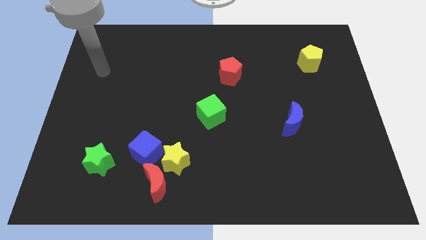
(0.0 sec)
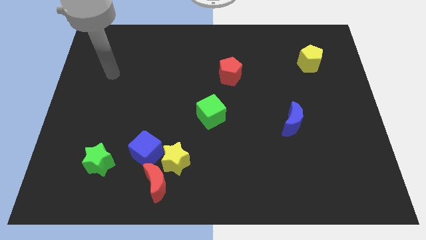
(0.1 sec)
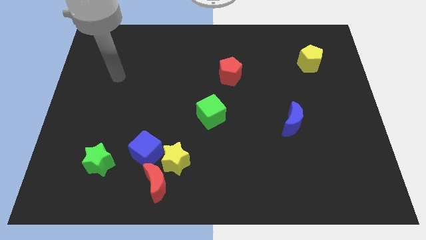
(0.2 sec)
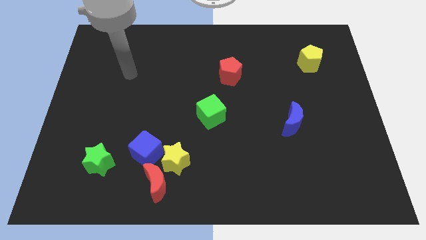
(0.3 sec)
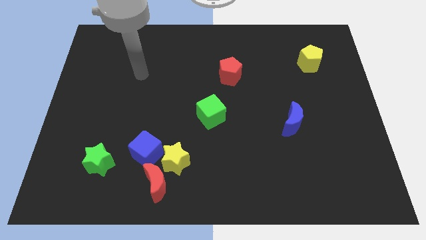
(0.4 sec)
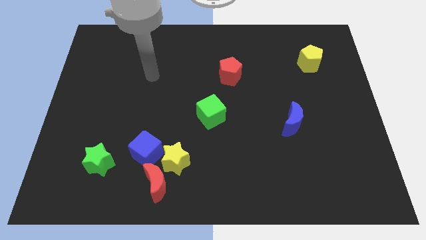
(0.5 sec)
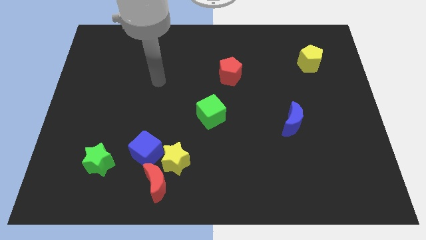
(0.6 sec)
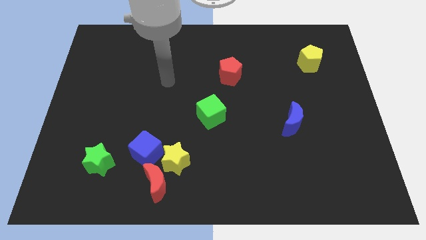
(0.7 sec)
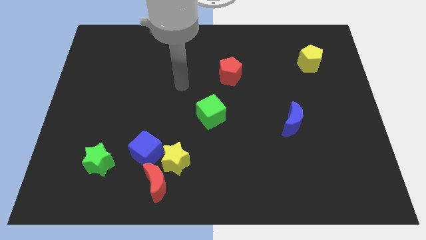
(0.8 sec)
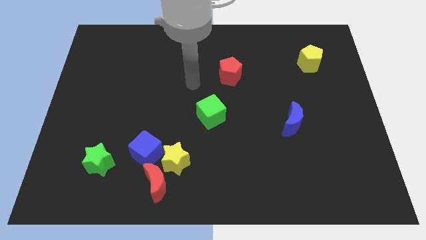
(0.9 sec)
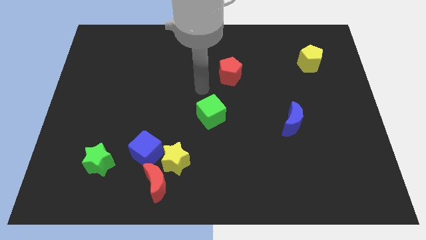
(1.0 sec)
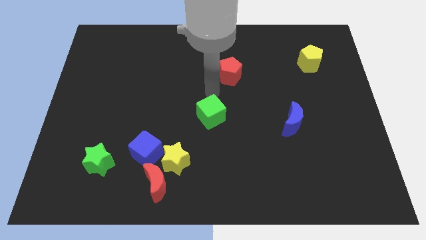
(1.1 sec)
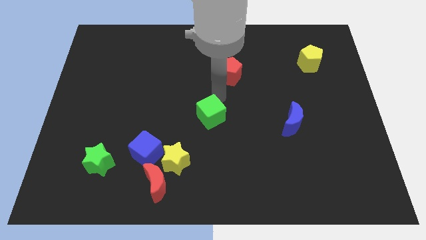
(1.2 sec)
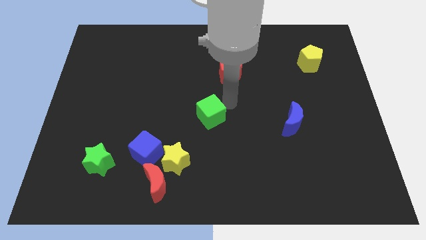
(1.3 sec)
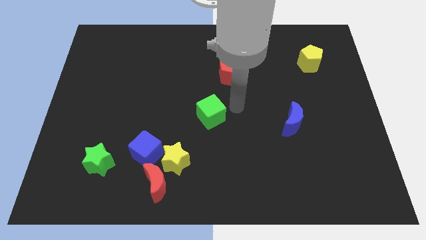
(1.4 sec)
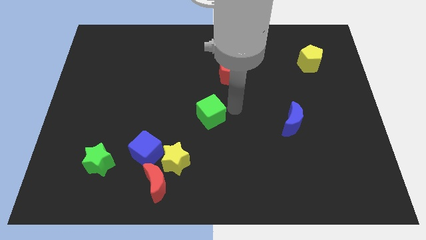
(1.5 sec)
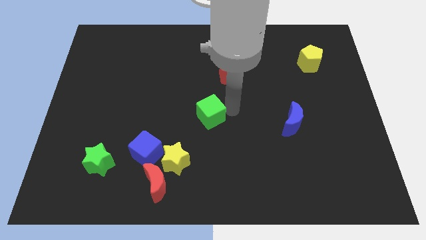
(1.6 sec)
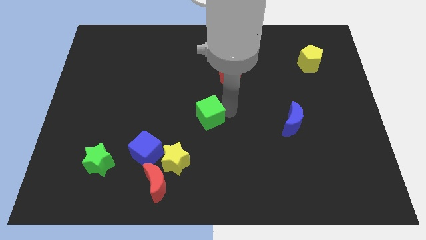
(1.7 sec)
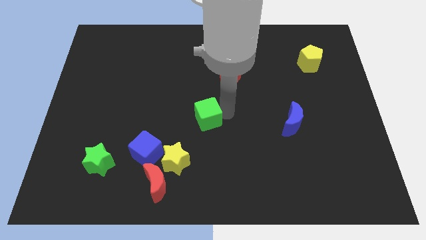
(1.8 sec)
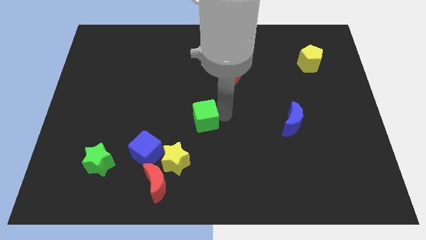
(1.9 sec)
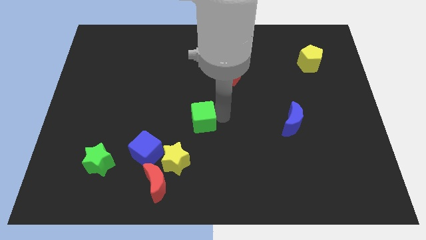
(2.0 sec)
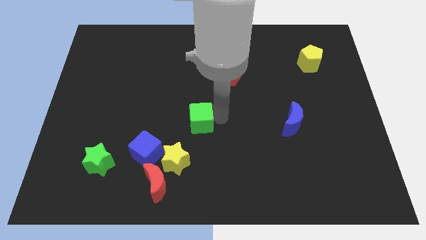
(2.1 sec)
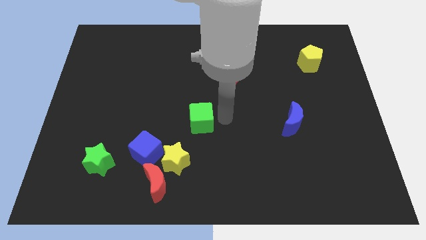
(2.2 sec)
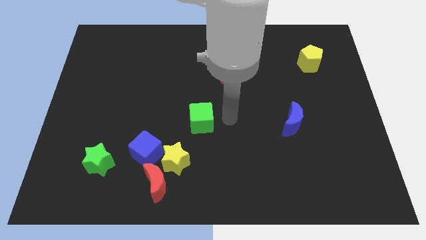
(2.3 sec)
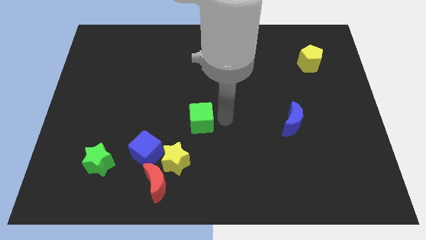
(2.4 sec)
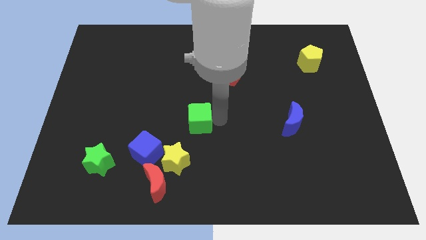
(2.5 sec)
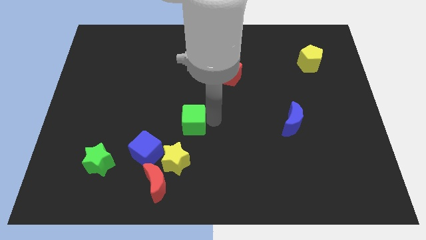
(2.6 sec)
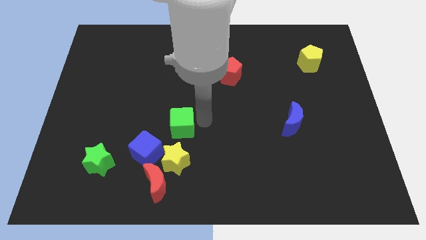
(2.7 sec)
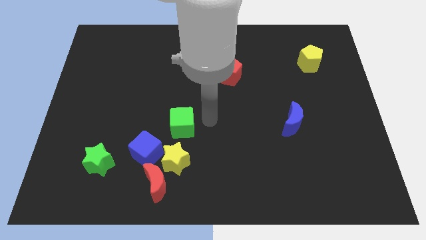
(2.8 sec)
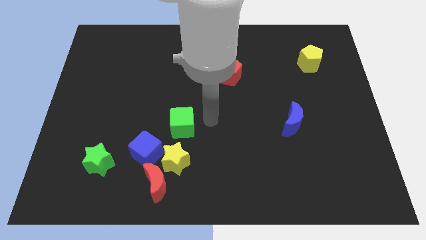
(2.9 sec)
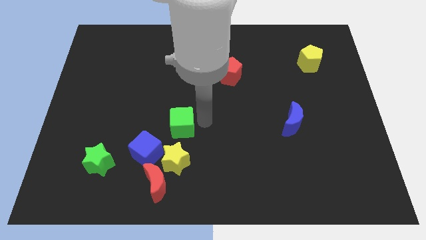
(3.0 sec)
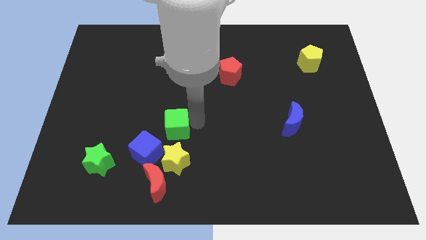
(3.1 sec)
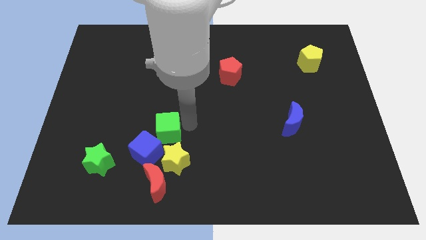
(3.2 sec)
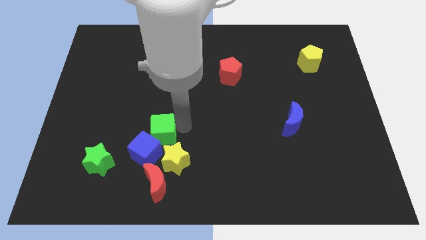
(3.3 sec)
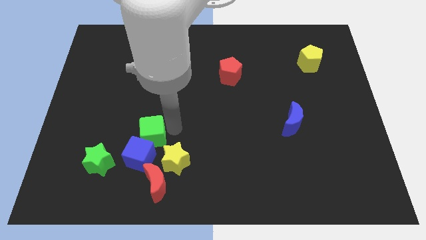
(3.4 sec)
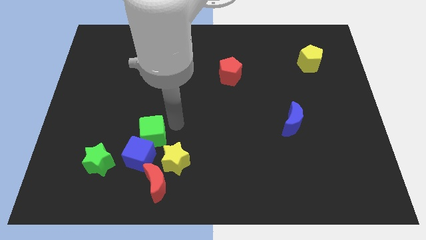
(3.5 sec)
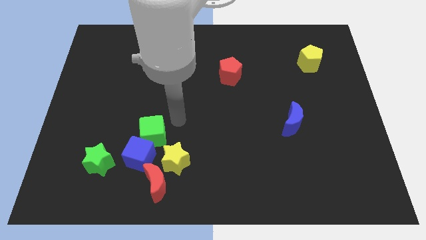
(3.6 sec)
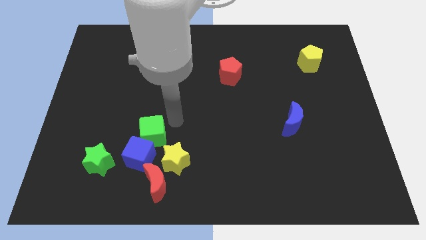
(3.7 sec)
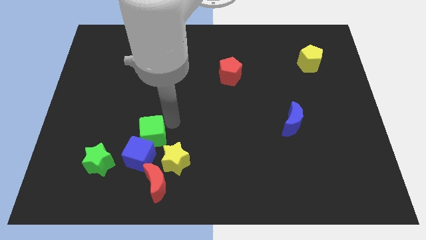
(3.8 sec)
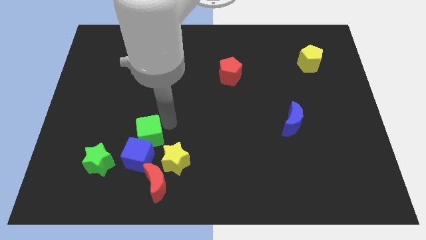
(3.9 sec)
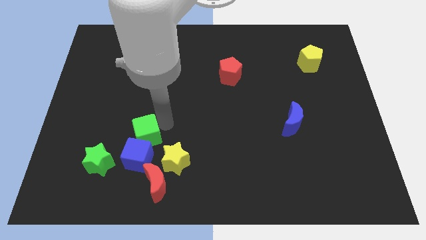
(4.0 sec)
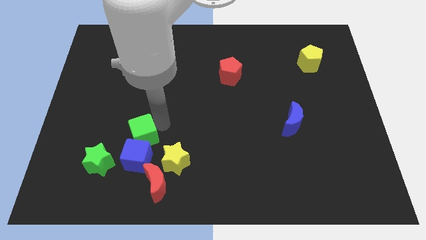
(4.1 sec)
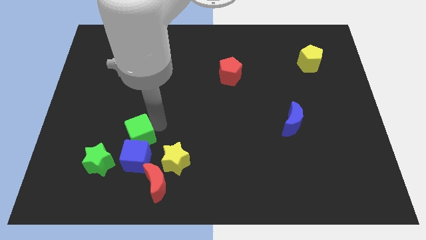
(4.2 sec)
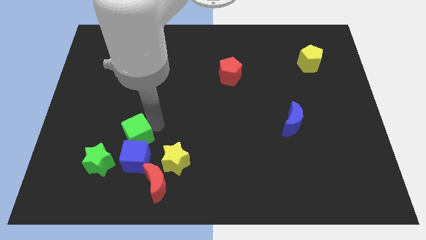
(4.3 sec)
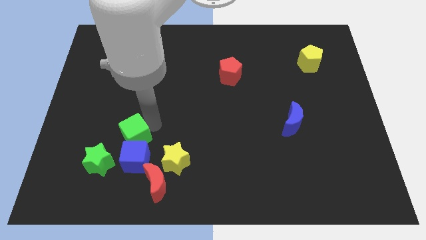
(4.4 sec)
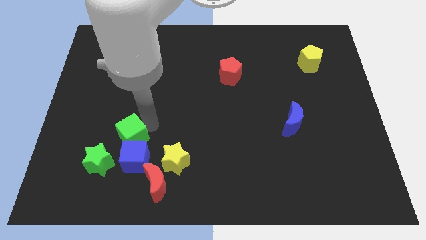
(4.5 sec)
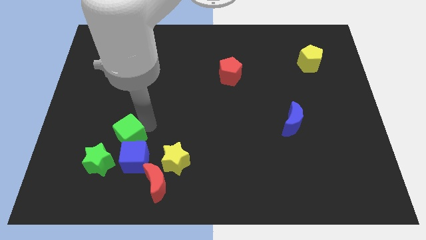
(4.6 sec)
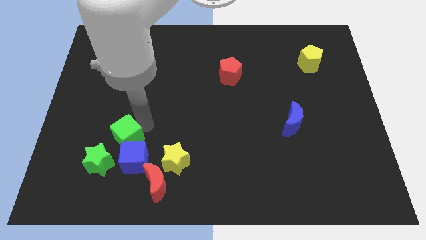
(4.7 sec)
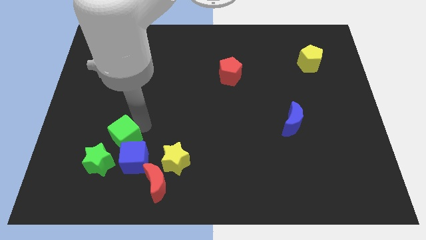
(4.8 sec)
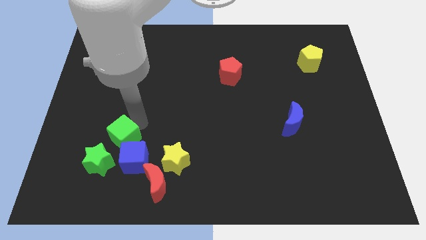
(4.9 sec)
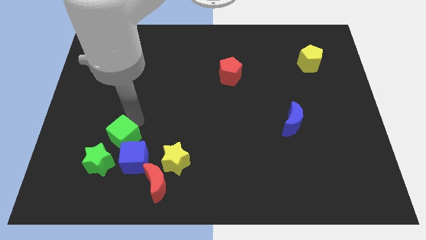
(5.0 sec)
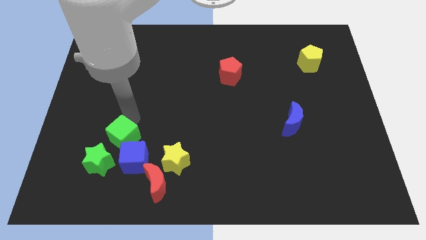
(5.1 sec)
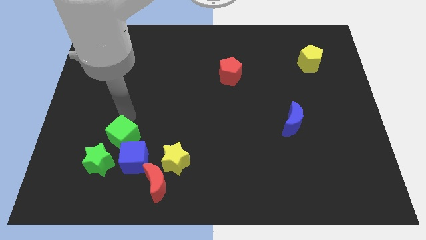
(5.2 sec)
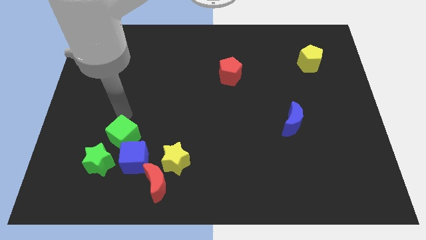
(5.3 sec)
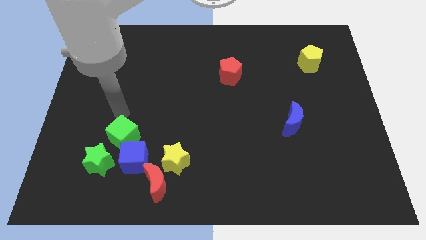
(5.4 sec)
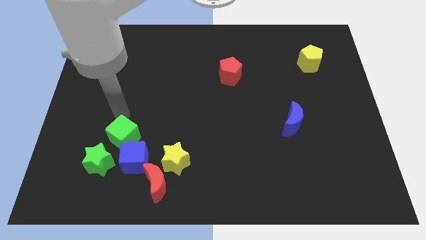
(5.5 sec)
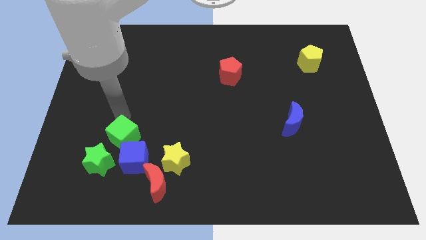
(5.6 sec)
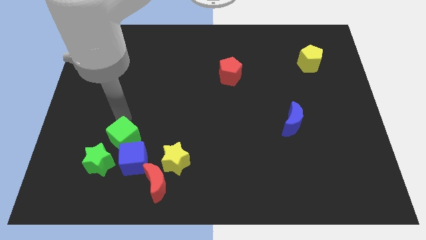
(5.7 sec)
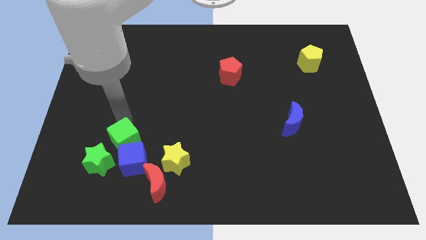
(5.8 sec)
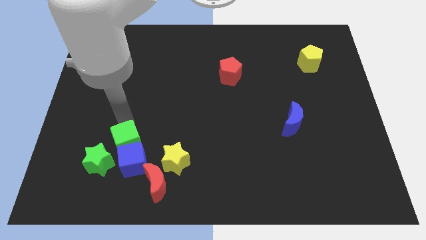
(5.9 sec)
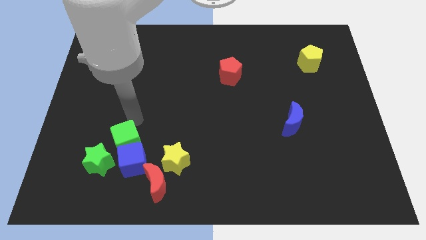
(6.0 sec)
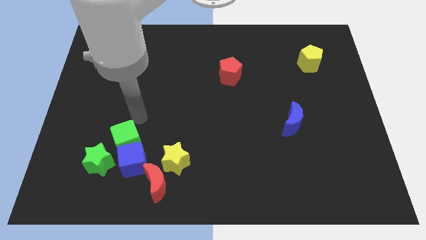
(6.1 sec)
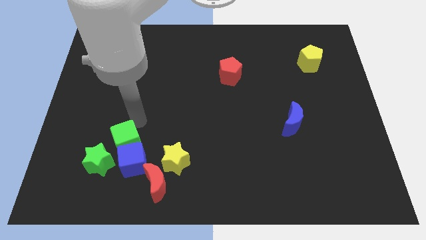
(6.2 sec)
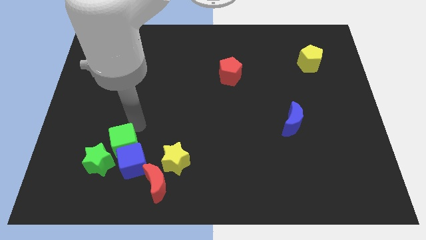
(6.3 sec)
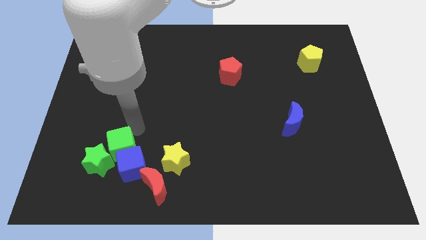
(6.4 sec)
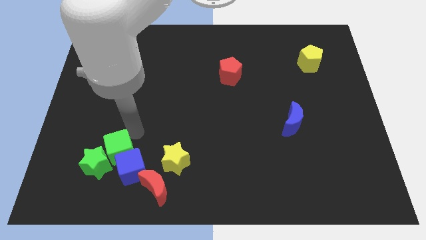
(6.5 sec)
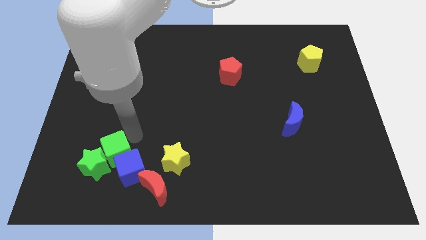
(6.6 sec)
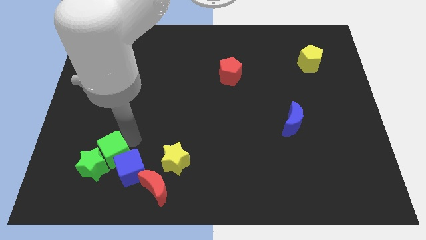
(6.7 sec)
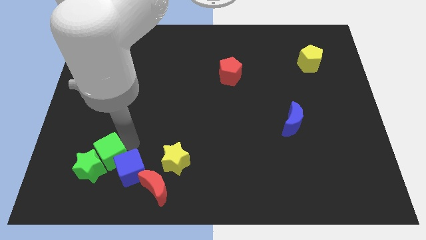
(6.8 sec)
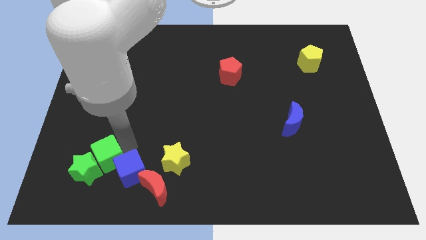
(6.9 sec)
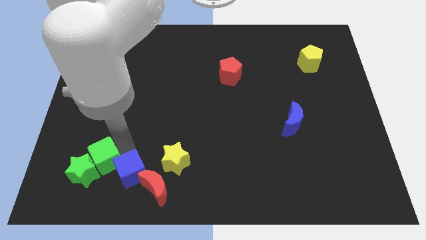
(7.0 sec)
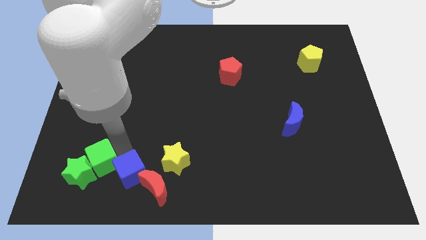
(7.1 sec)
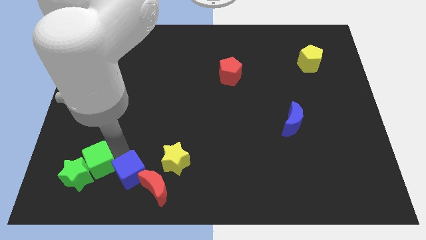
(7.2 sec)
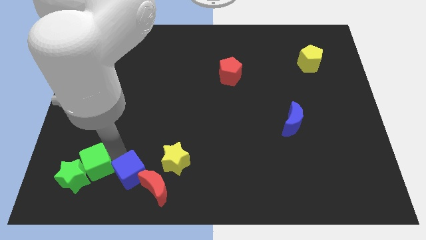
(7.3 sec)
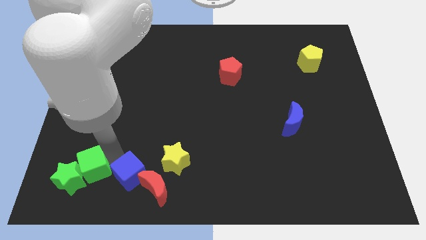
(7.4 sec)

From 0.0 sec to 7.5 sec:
slide the green cube to the left side of the red moon
